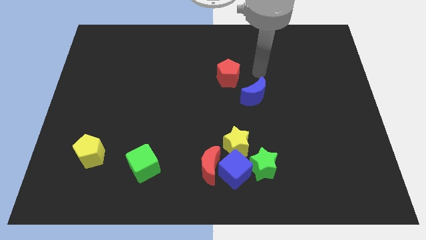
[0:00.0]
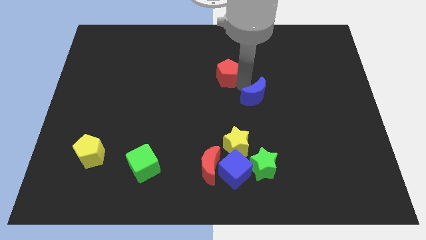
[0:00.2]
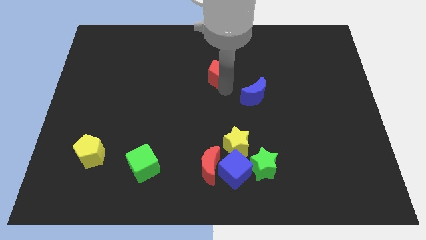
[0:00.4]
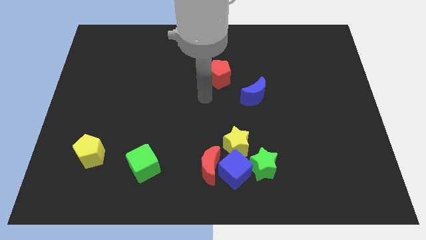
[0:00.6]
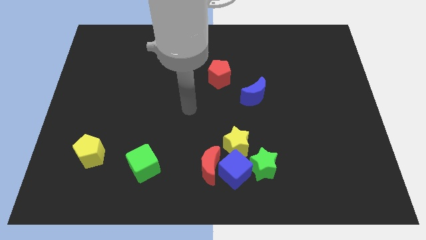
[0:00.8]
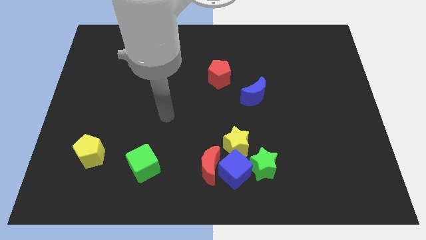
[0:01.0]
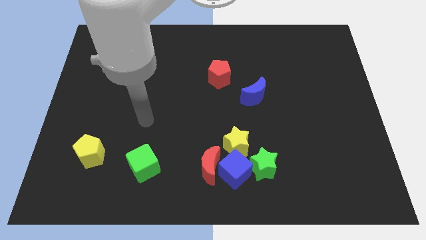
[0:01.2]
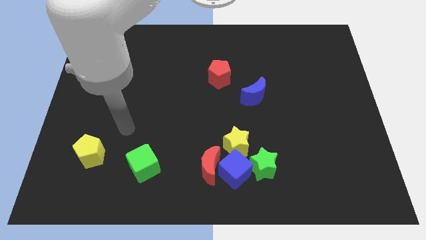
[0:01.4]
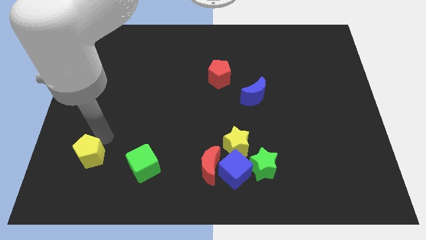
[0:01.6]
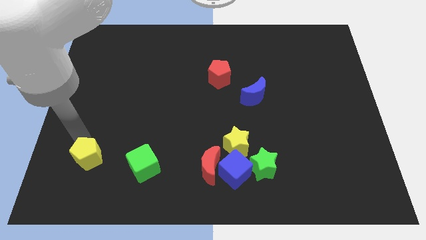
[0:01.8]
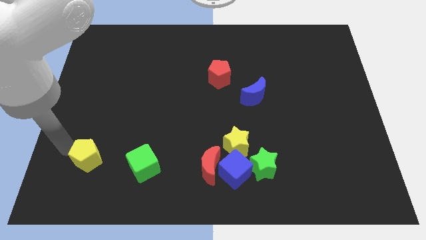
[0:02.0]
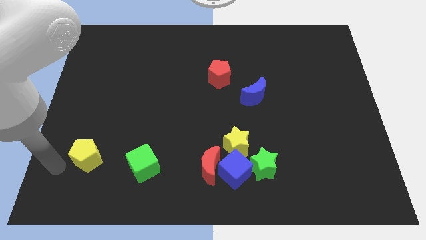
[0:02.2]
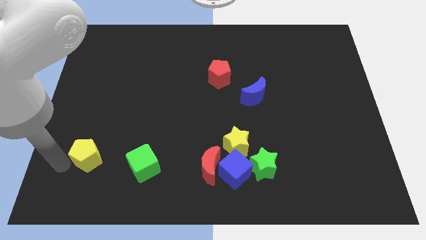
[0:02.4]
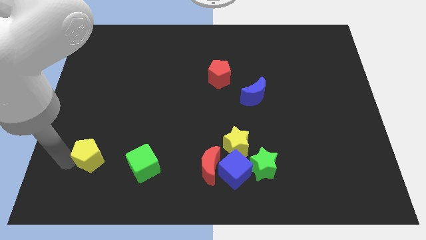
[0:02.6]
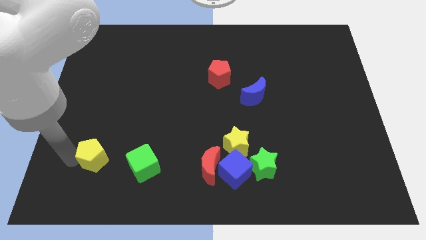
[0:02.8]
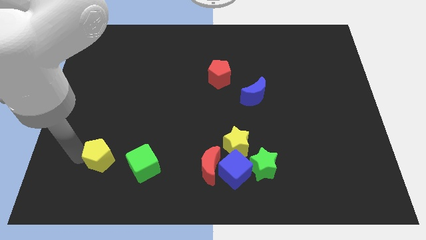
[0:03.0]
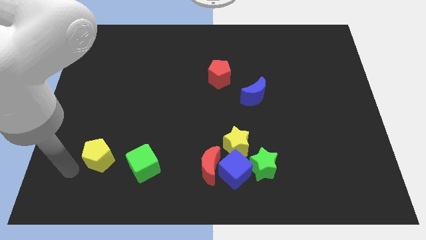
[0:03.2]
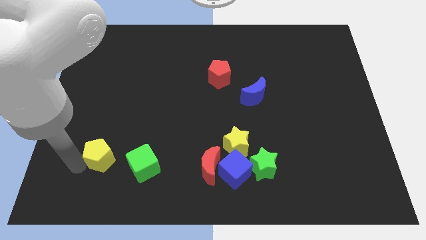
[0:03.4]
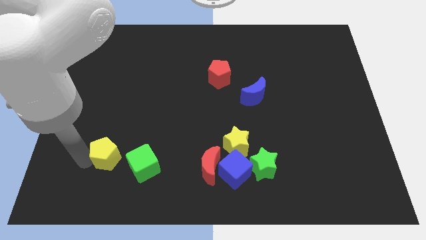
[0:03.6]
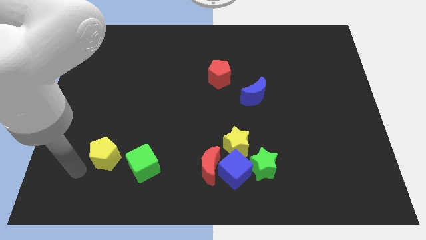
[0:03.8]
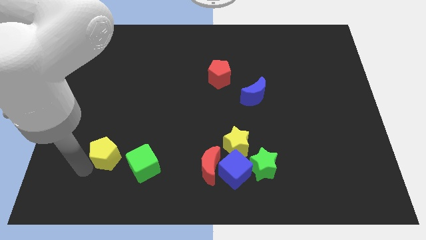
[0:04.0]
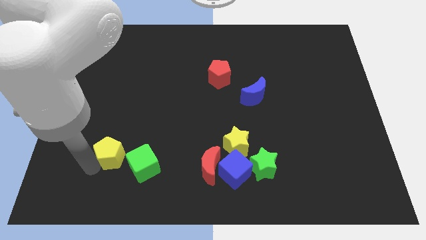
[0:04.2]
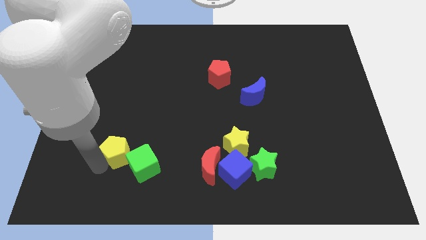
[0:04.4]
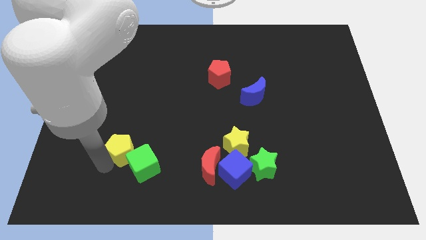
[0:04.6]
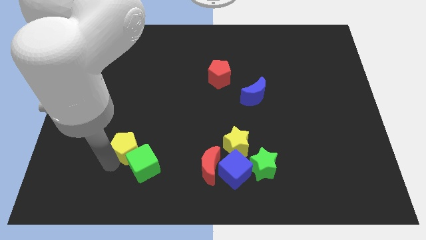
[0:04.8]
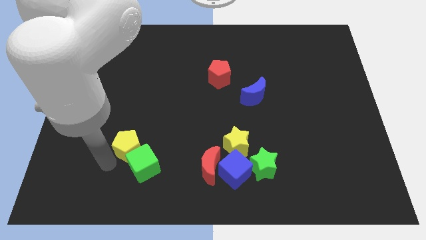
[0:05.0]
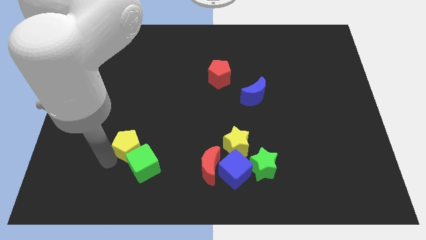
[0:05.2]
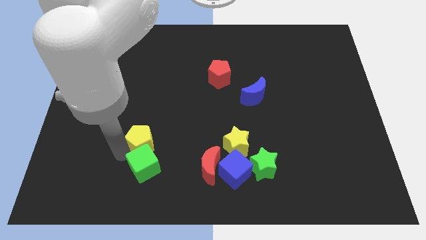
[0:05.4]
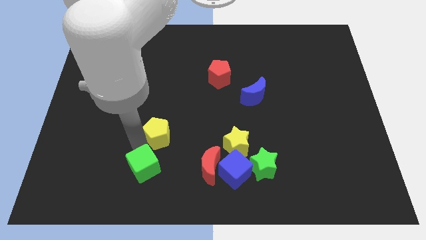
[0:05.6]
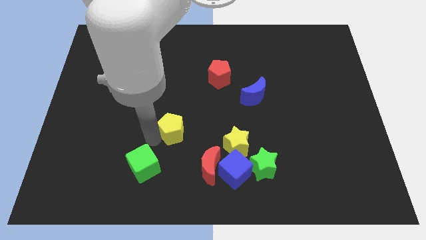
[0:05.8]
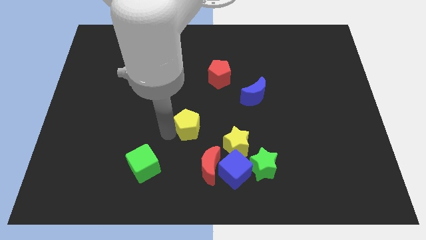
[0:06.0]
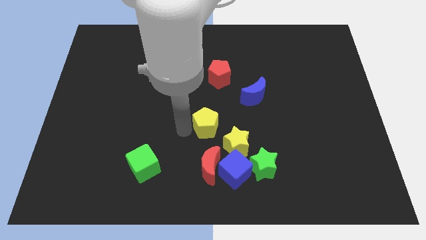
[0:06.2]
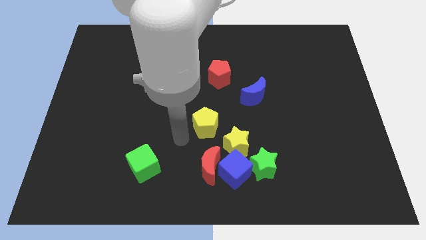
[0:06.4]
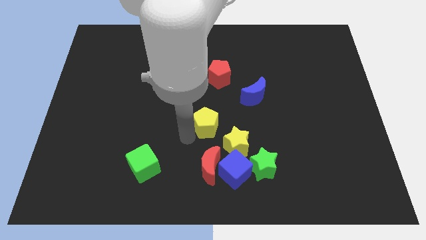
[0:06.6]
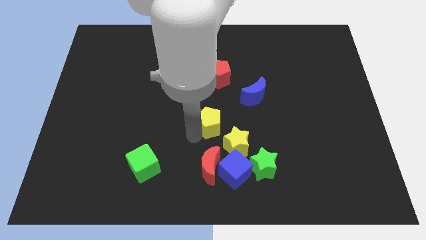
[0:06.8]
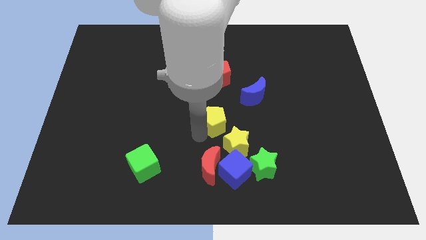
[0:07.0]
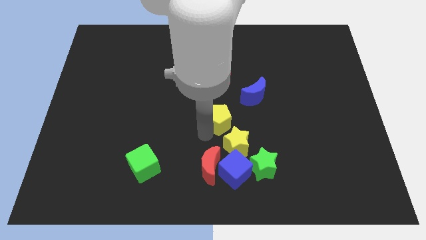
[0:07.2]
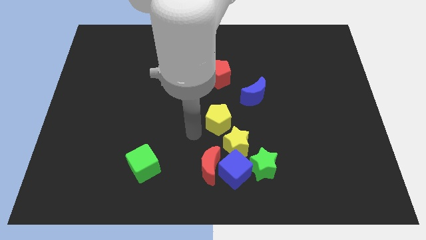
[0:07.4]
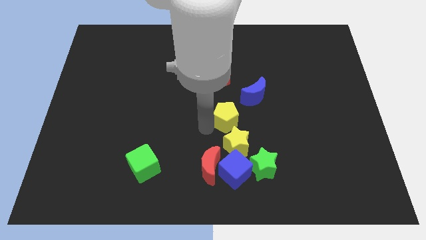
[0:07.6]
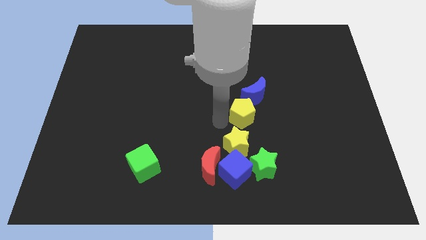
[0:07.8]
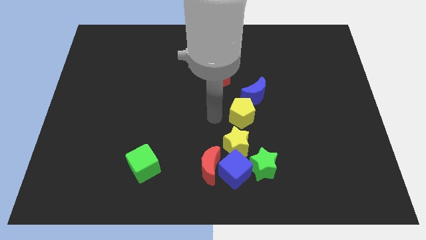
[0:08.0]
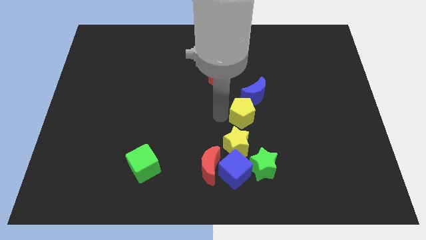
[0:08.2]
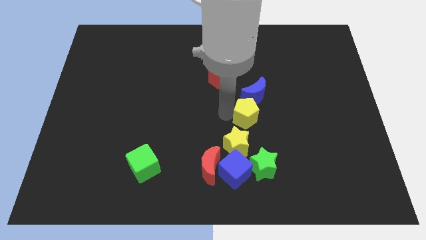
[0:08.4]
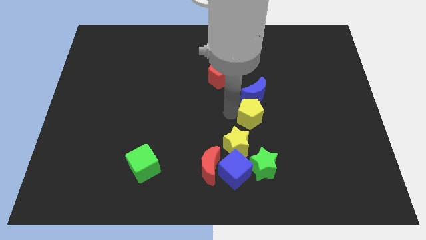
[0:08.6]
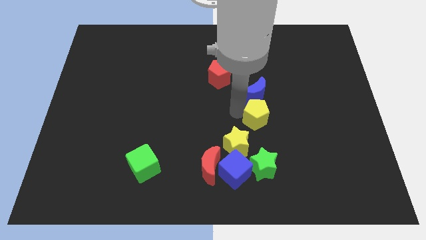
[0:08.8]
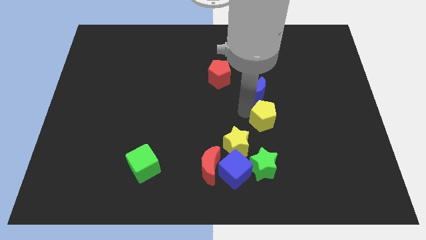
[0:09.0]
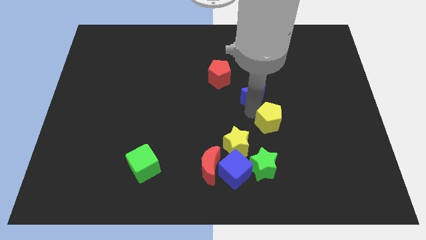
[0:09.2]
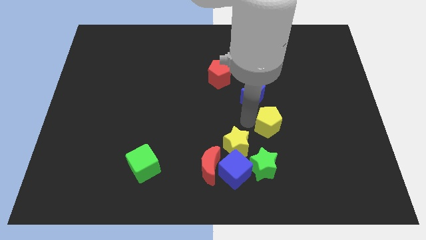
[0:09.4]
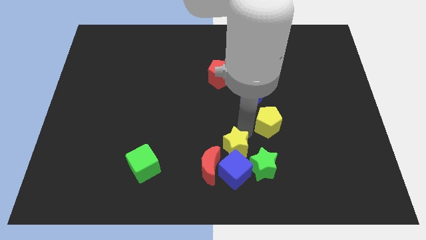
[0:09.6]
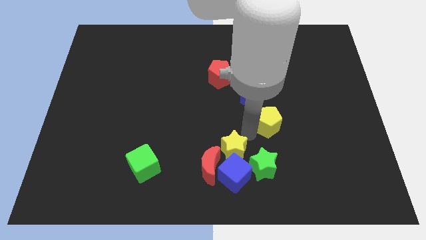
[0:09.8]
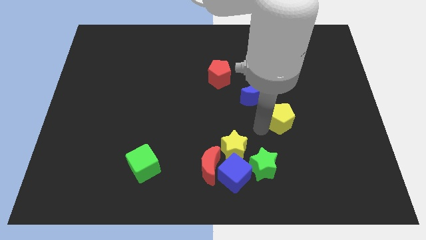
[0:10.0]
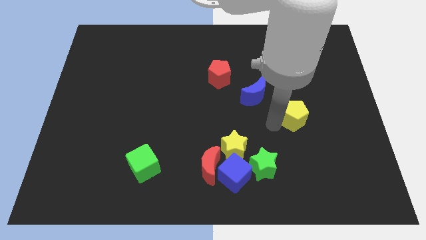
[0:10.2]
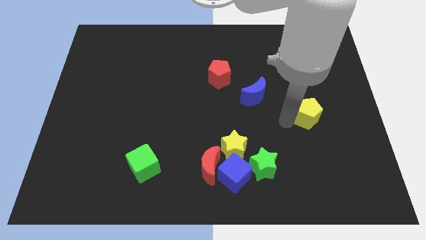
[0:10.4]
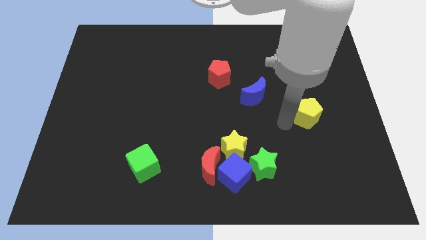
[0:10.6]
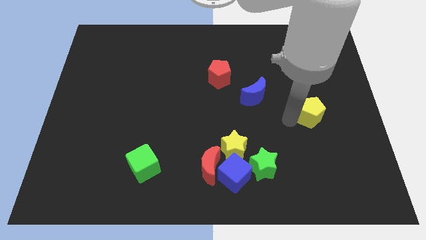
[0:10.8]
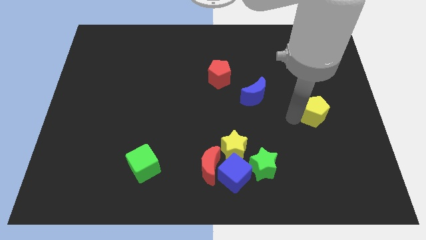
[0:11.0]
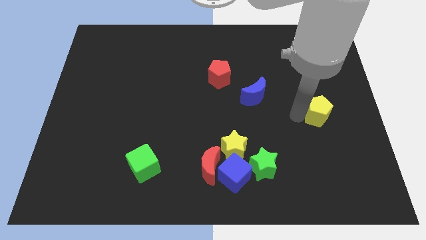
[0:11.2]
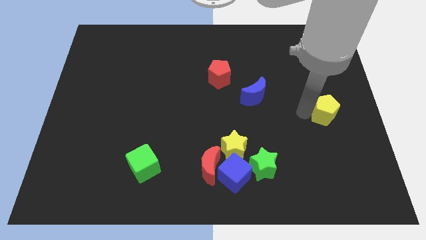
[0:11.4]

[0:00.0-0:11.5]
move the yellow pentagon to the right side

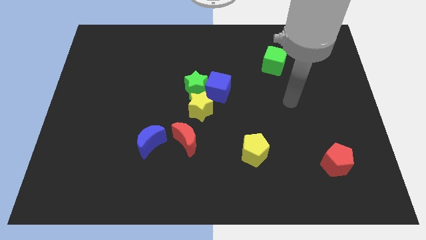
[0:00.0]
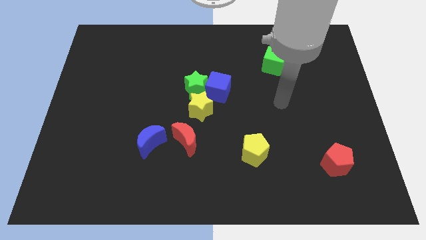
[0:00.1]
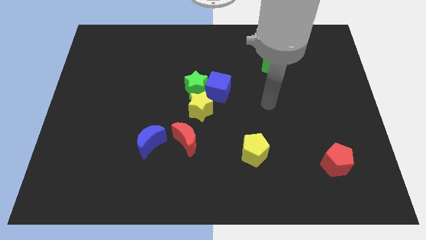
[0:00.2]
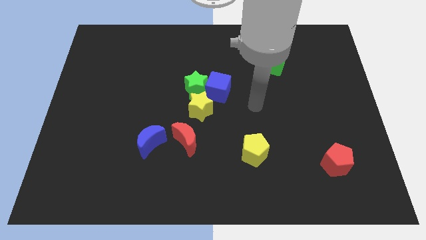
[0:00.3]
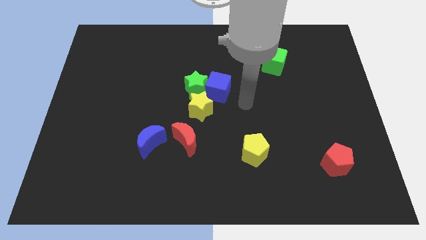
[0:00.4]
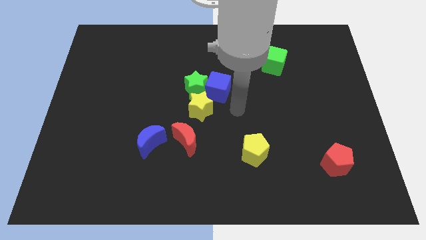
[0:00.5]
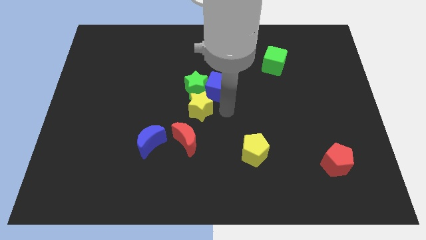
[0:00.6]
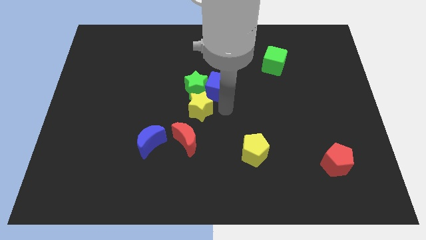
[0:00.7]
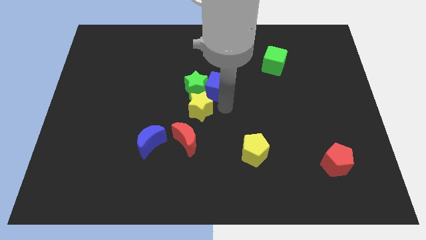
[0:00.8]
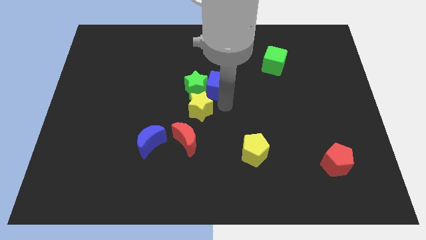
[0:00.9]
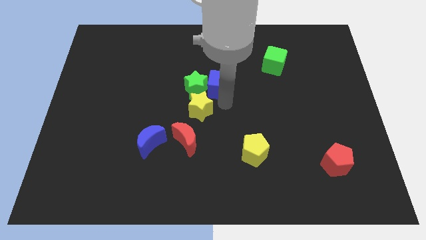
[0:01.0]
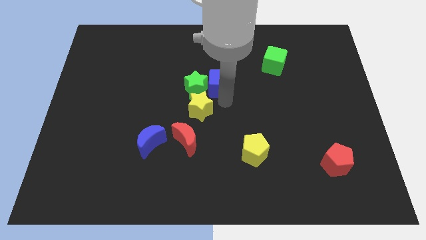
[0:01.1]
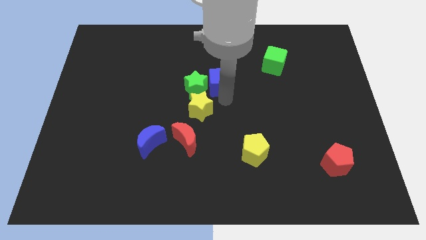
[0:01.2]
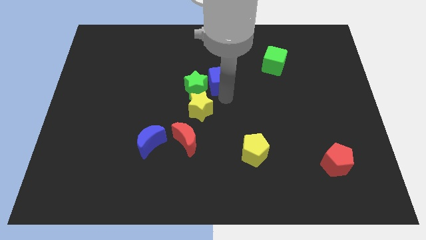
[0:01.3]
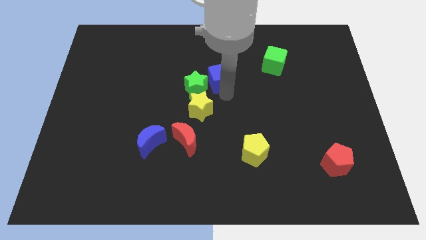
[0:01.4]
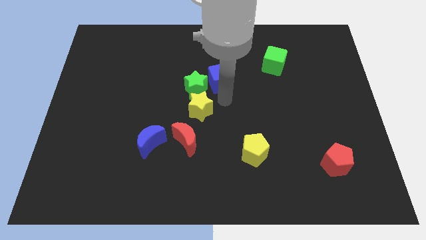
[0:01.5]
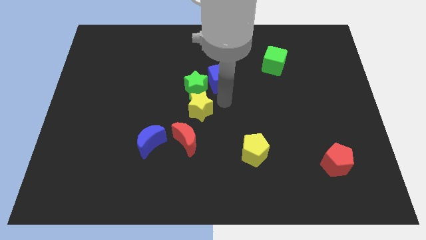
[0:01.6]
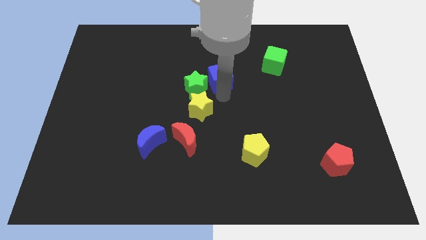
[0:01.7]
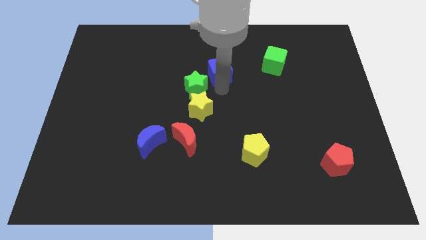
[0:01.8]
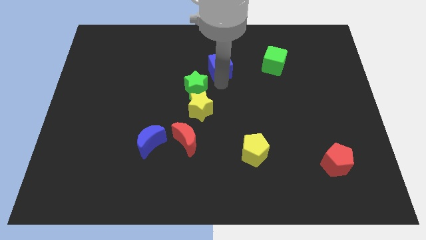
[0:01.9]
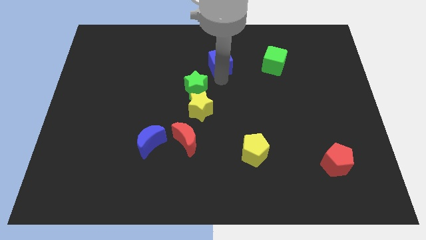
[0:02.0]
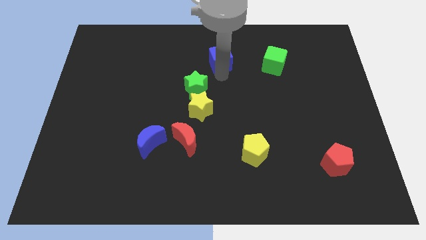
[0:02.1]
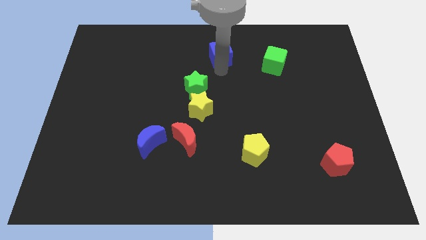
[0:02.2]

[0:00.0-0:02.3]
put the blue cube to the towards your base
